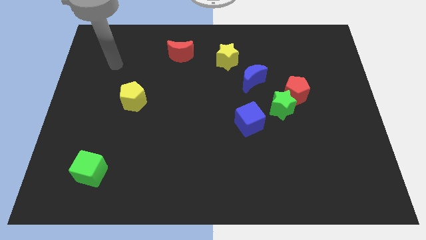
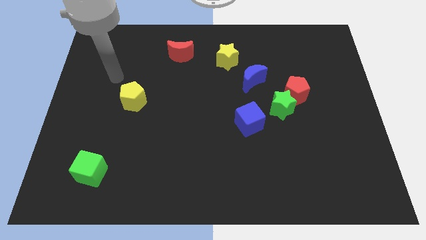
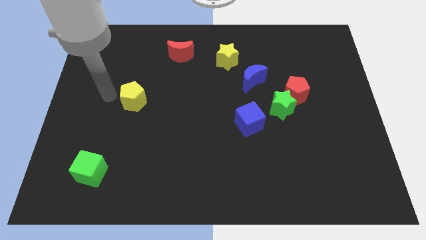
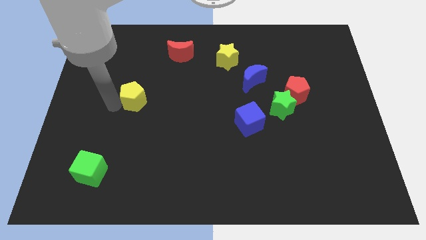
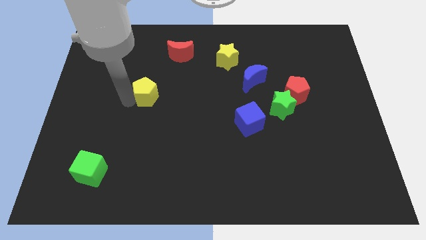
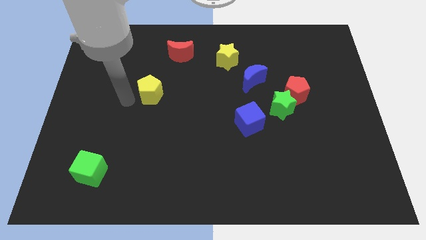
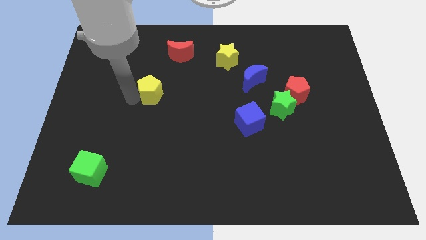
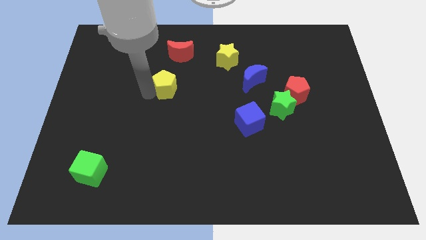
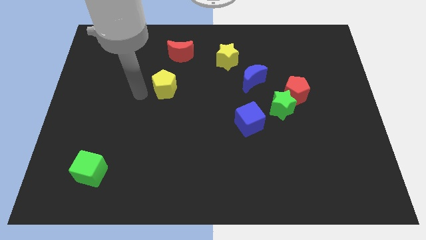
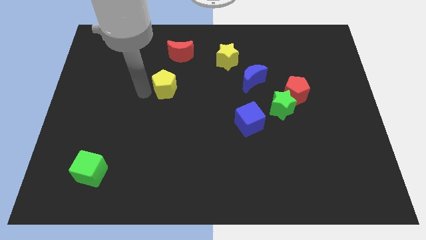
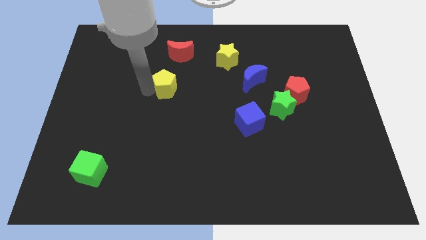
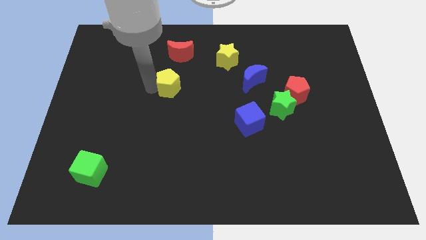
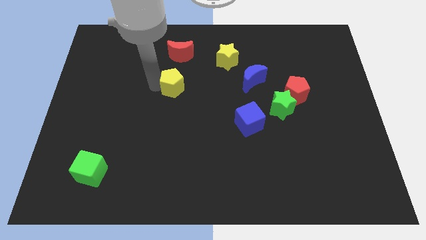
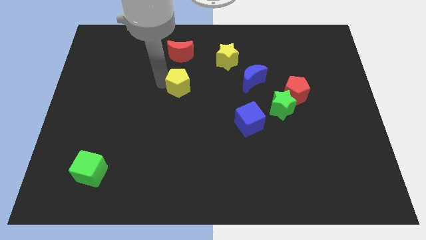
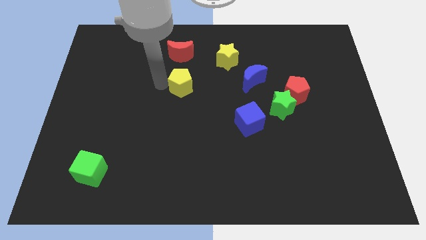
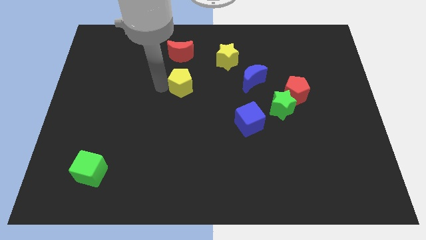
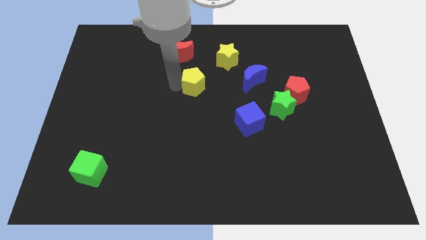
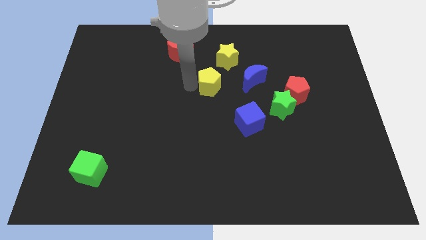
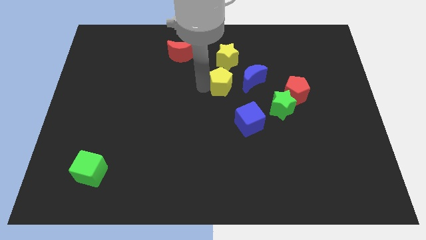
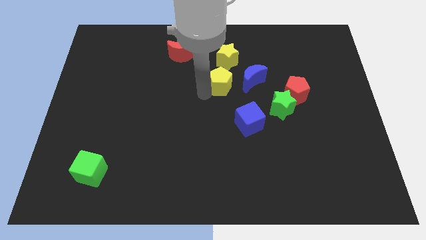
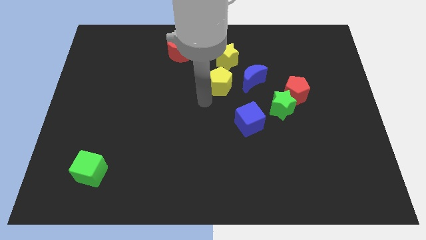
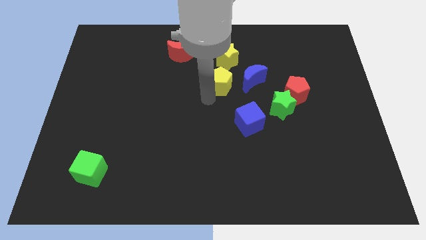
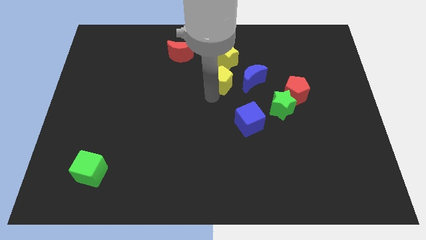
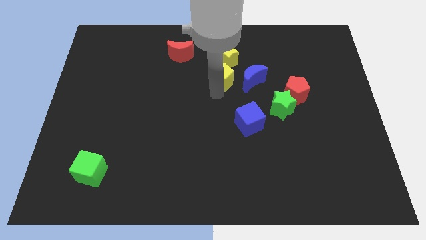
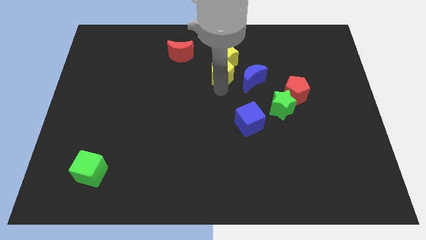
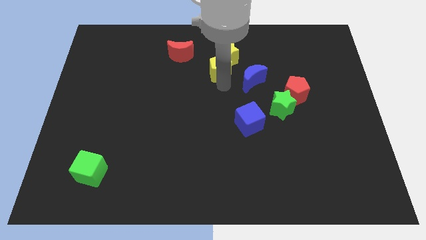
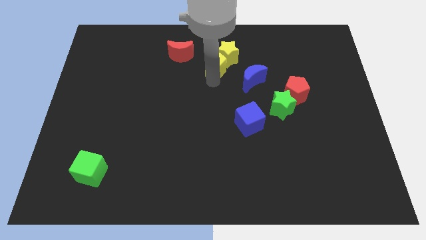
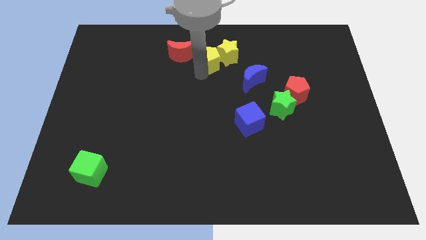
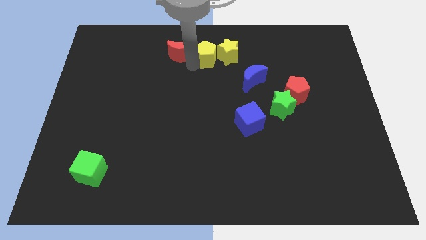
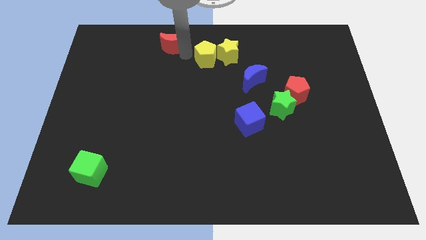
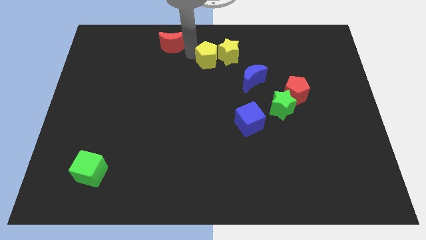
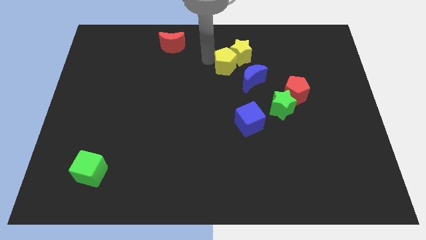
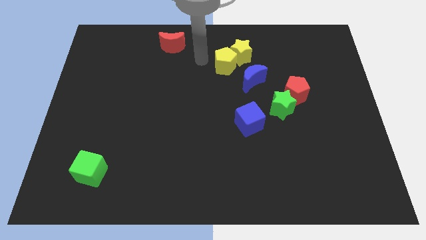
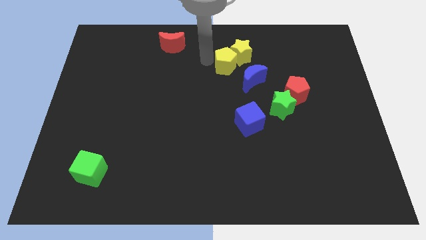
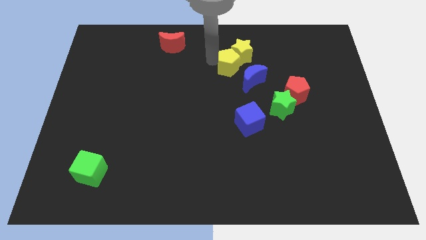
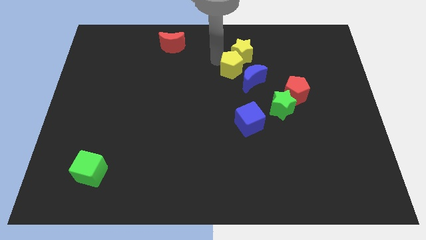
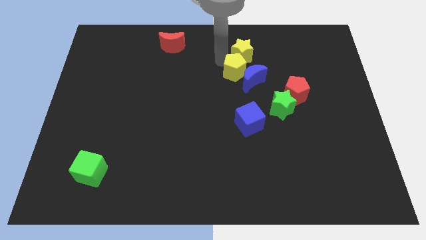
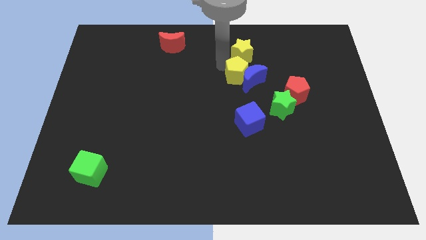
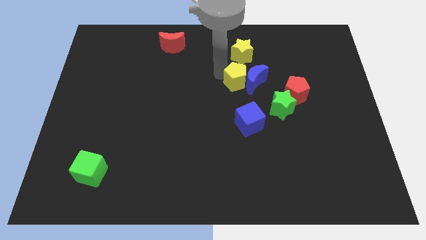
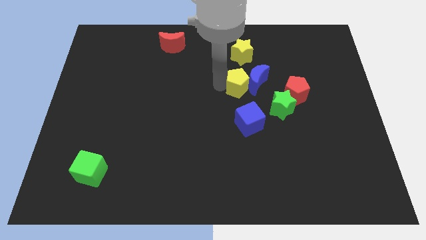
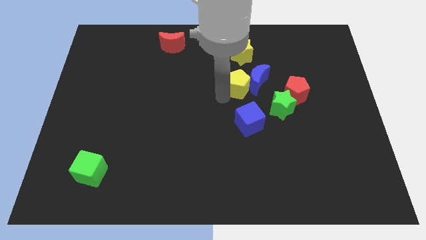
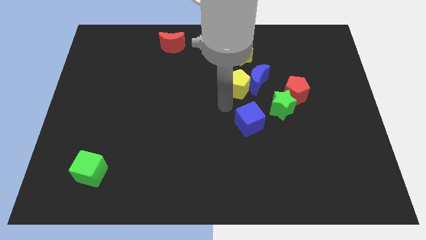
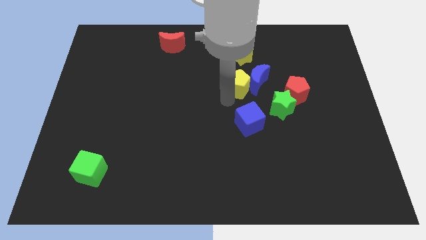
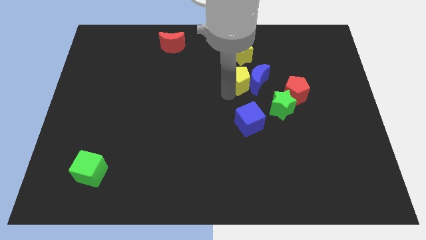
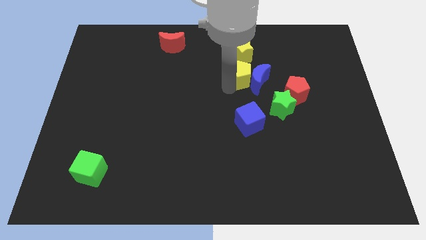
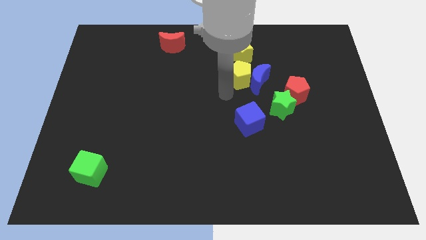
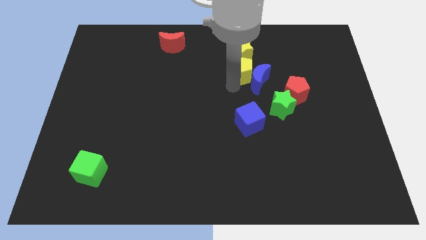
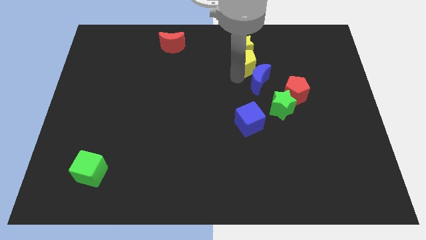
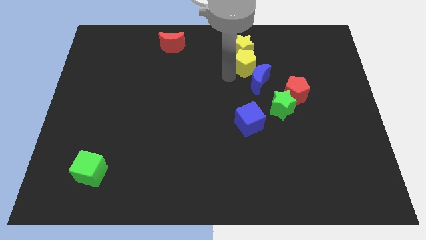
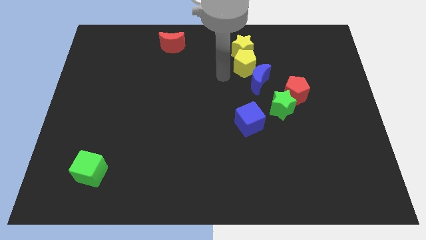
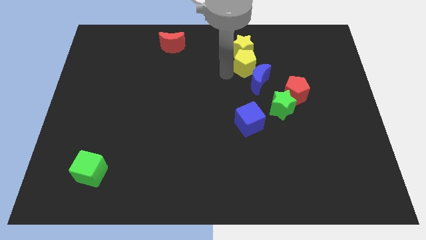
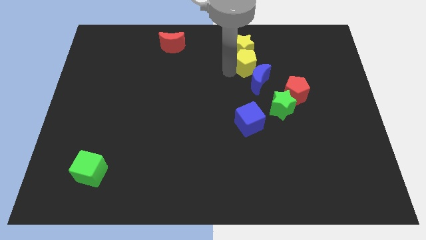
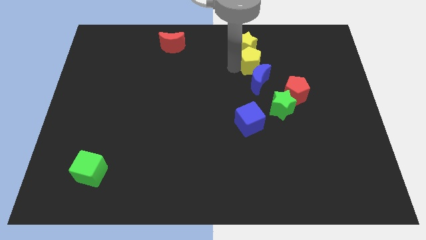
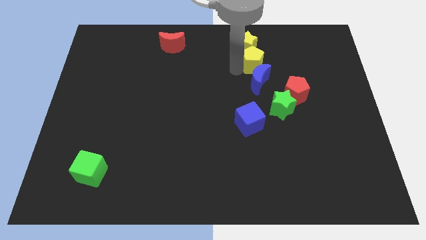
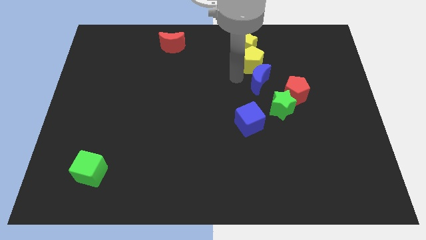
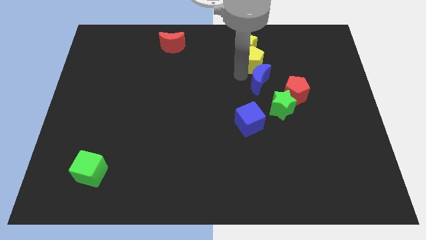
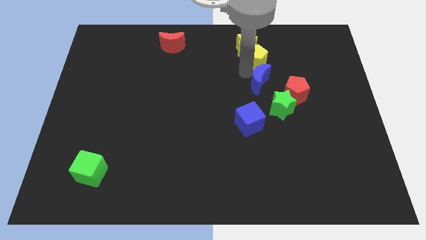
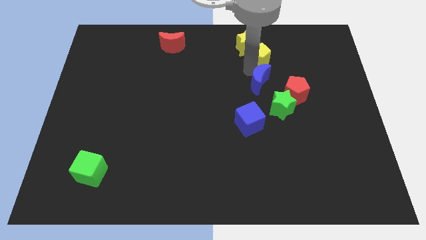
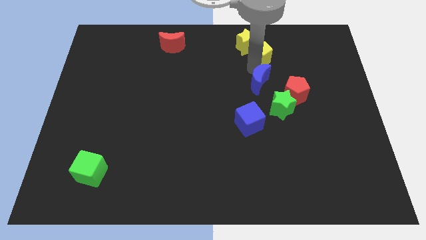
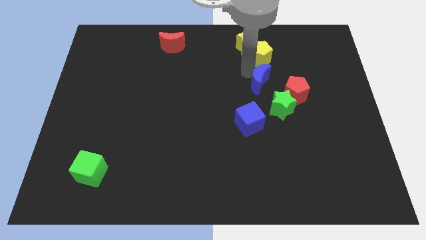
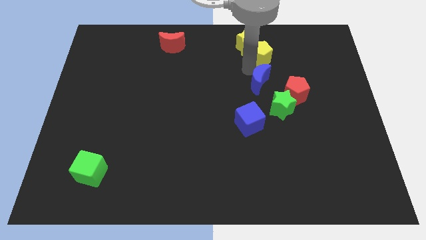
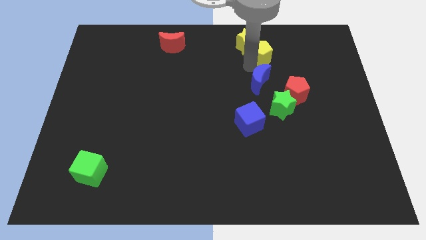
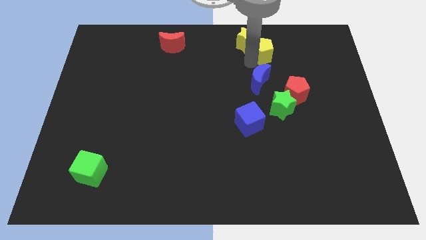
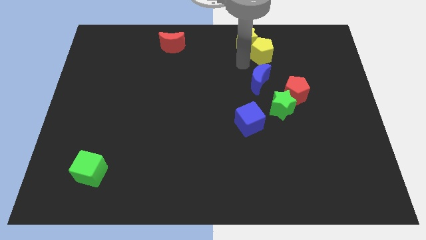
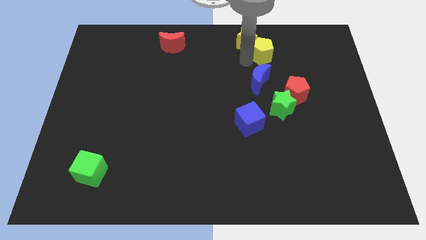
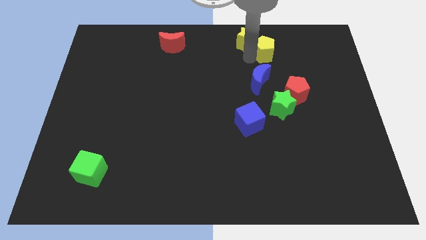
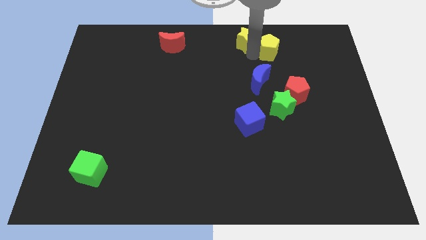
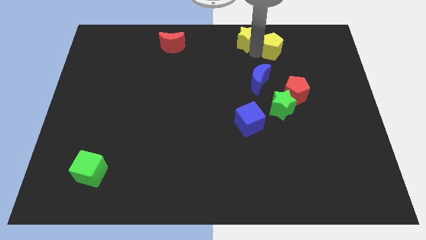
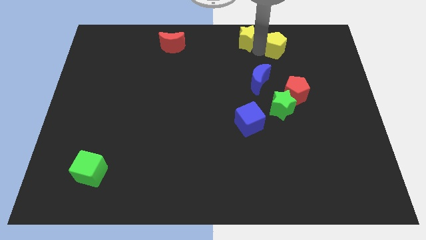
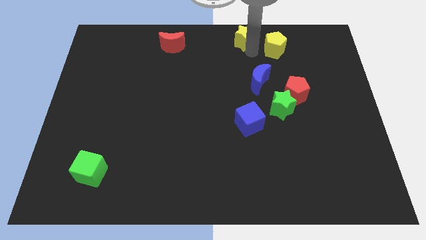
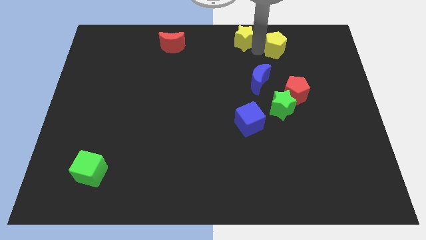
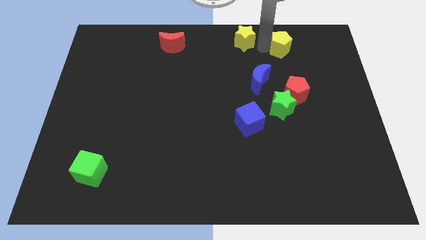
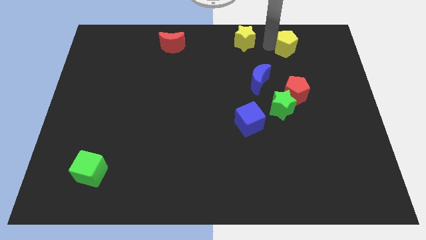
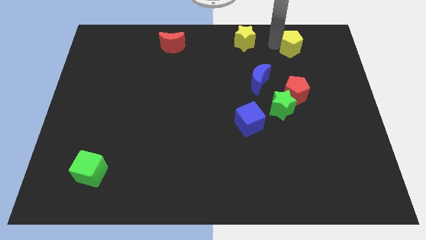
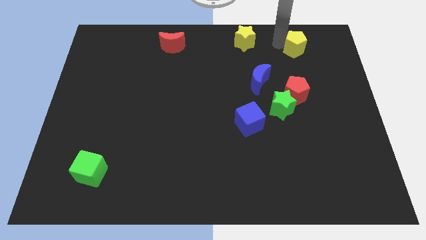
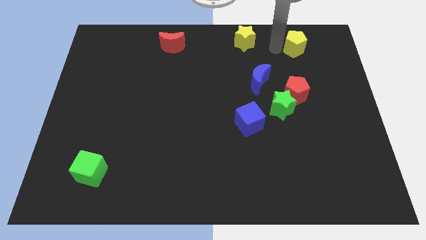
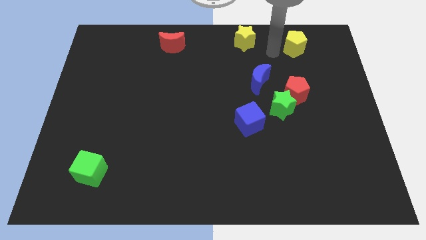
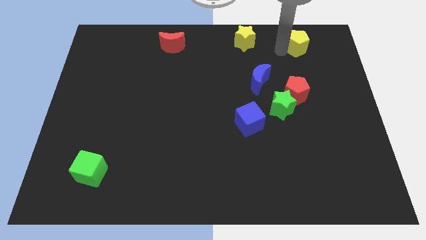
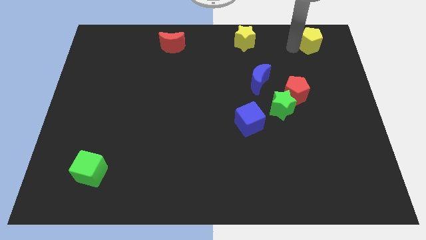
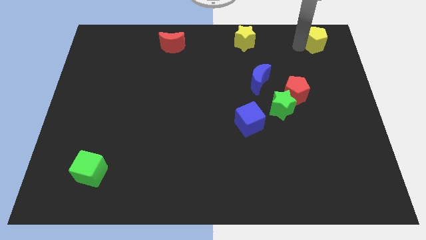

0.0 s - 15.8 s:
slide the yellow pentagon to the top right of the board
